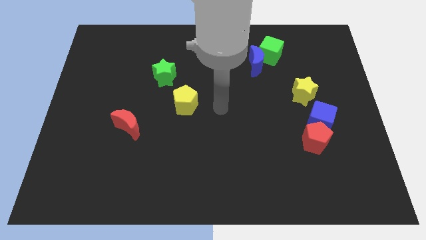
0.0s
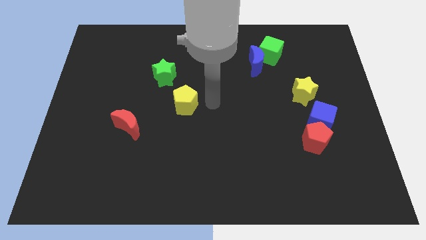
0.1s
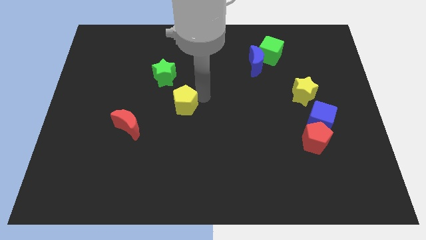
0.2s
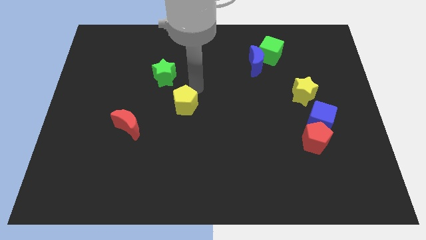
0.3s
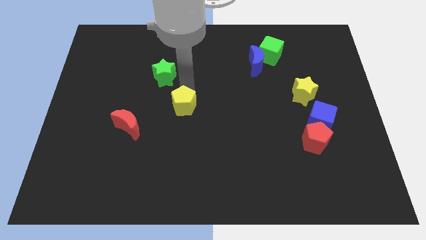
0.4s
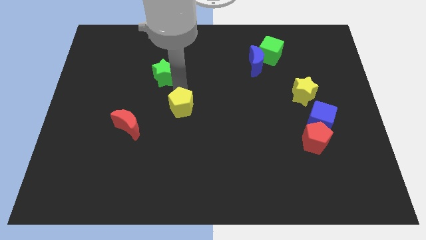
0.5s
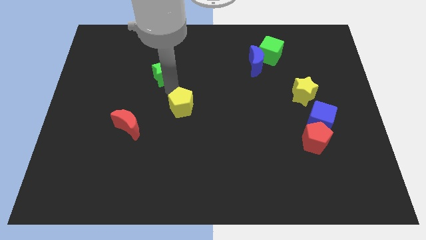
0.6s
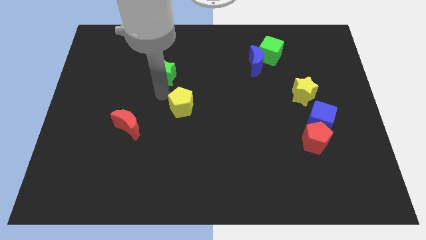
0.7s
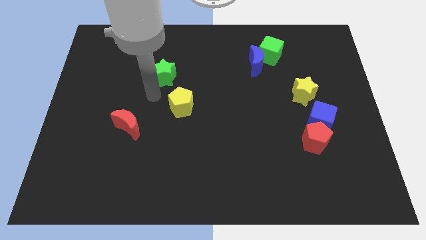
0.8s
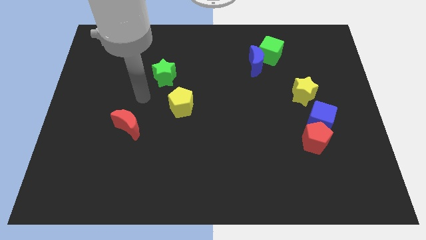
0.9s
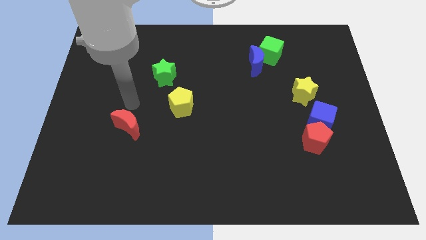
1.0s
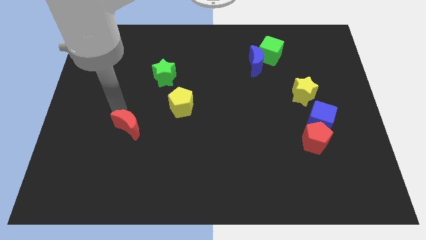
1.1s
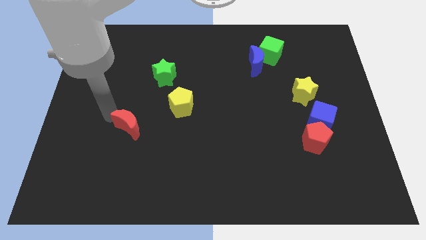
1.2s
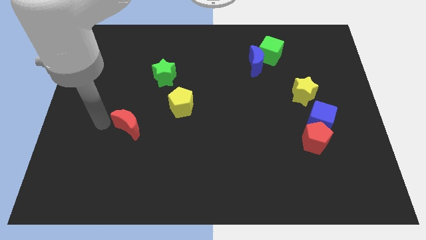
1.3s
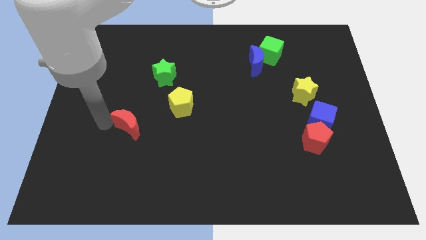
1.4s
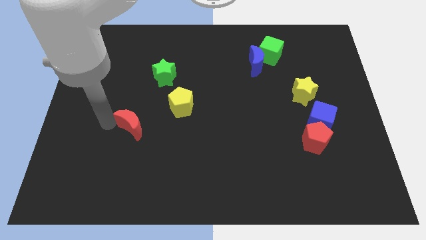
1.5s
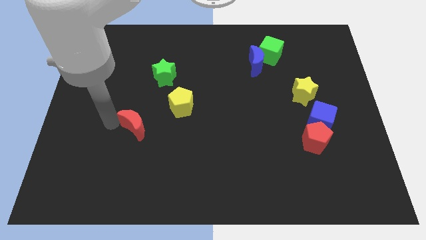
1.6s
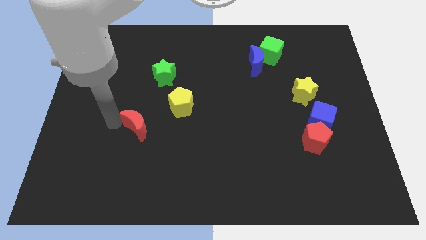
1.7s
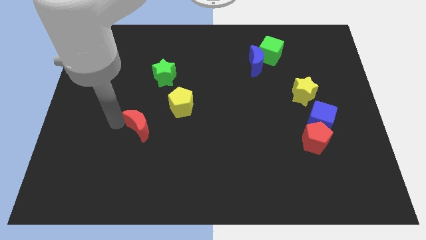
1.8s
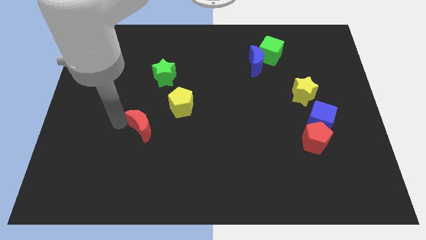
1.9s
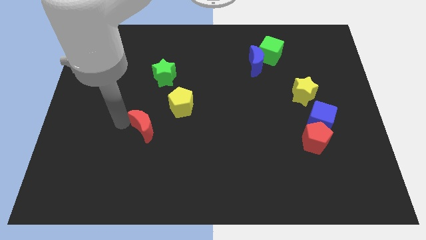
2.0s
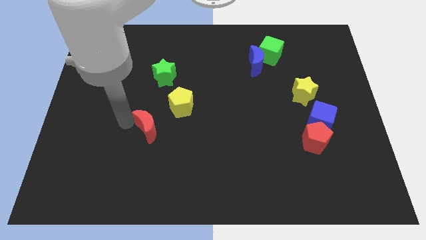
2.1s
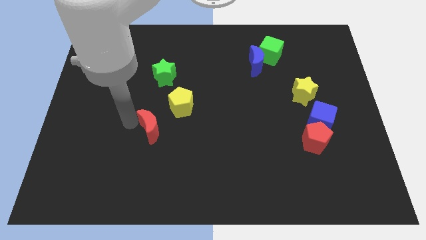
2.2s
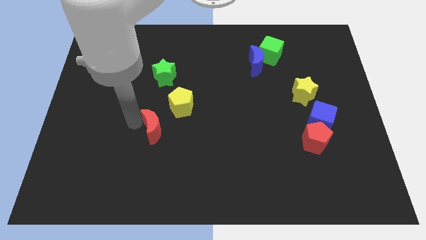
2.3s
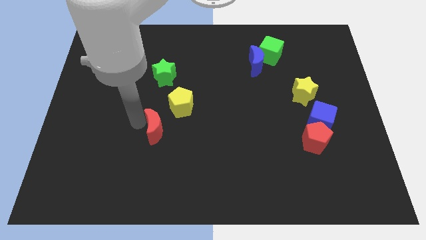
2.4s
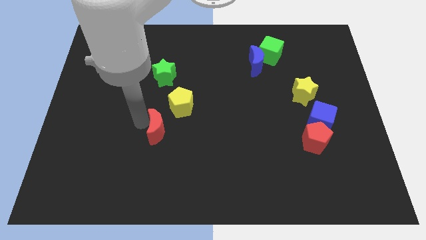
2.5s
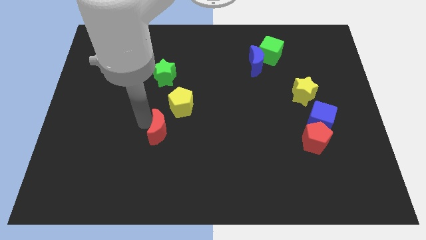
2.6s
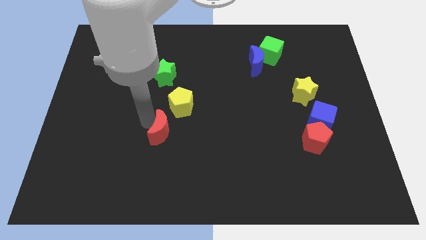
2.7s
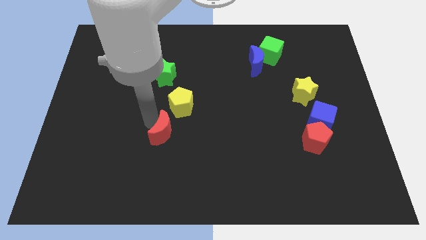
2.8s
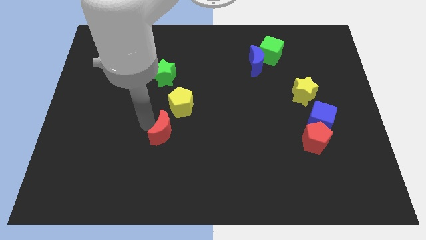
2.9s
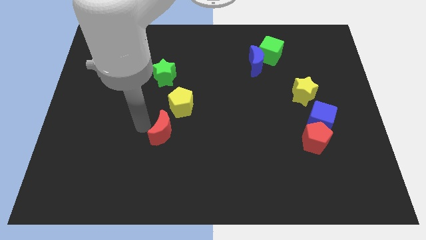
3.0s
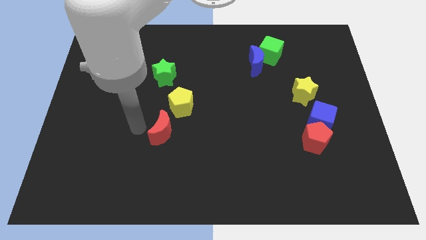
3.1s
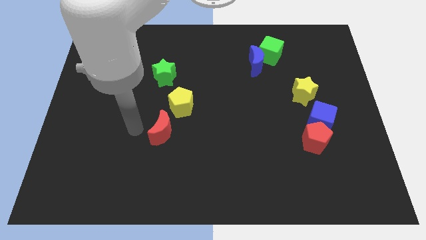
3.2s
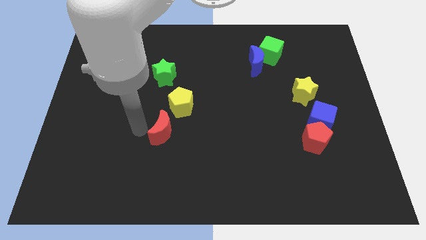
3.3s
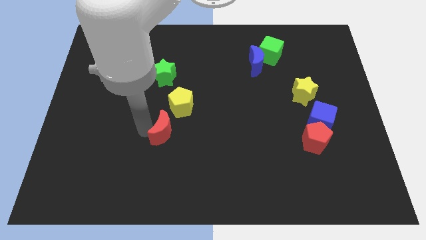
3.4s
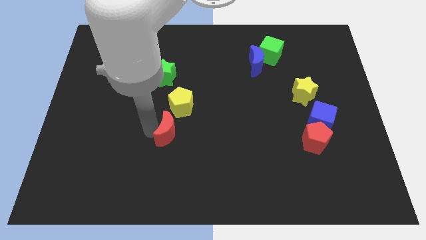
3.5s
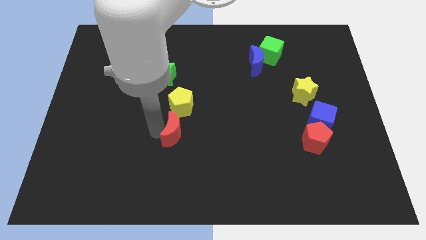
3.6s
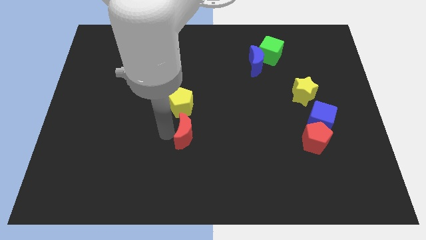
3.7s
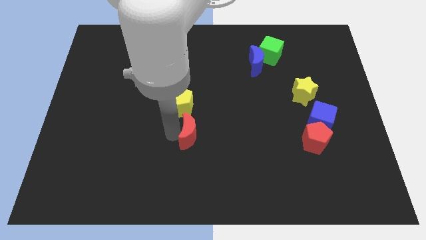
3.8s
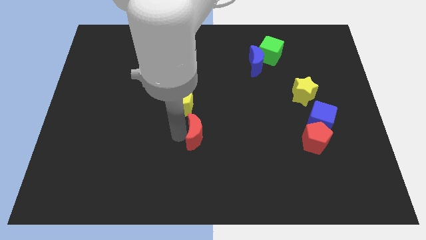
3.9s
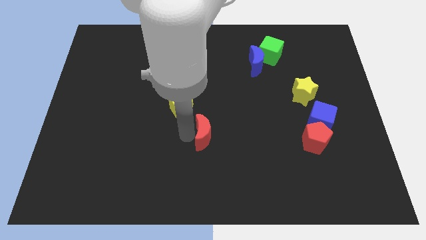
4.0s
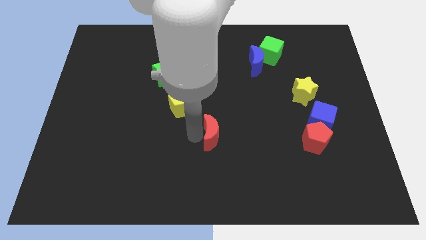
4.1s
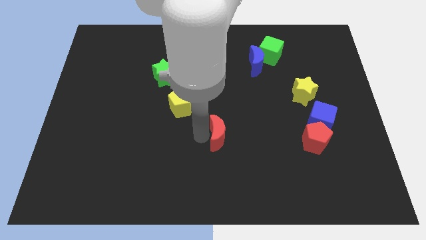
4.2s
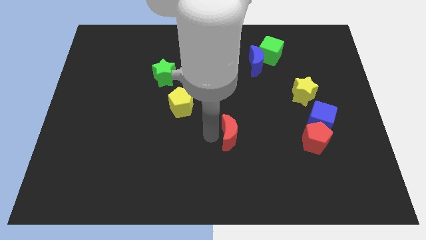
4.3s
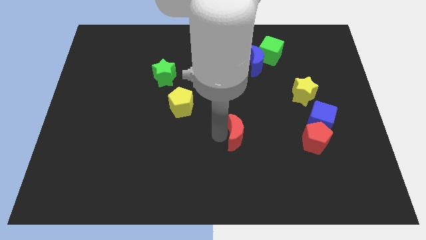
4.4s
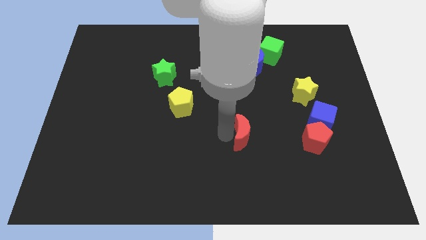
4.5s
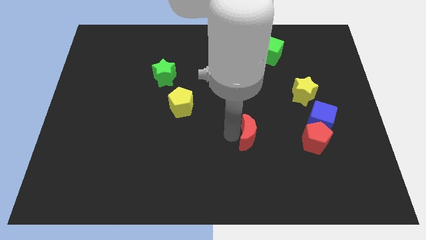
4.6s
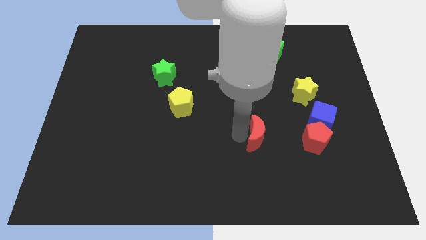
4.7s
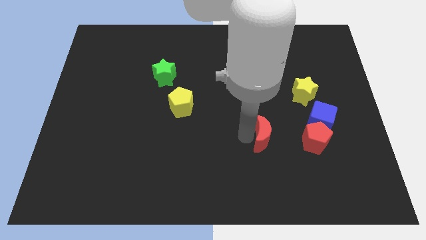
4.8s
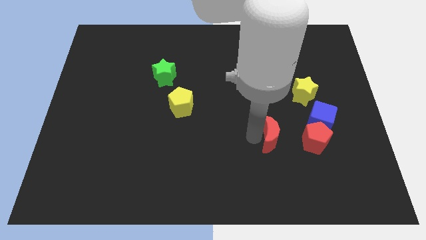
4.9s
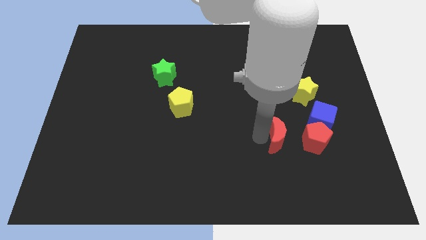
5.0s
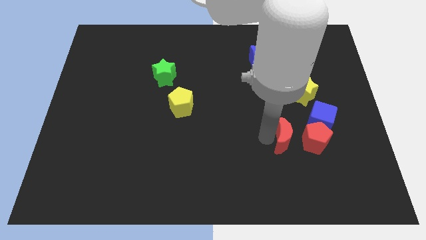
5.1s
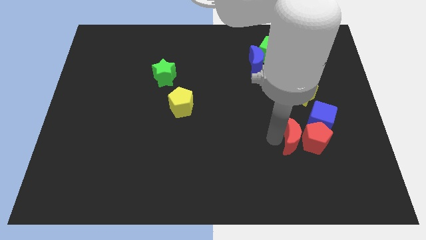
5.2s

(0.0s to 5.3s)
move the red moon to the red pentagon

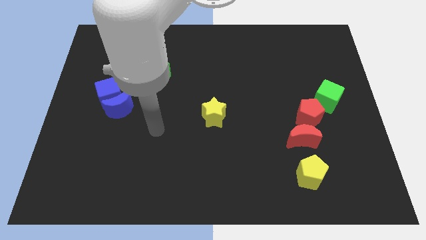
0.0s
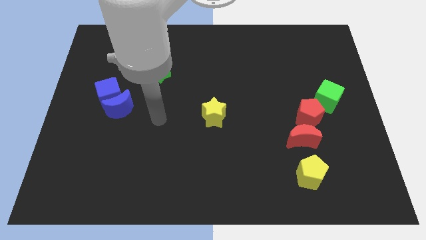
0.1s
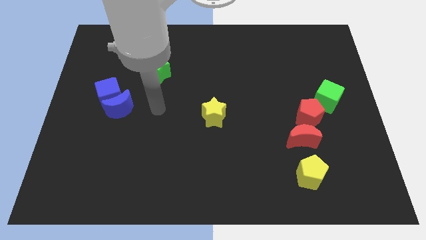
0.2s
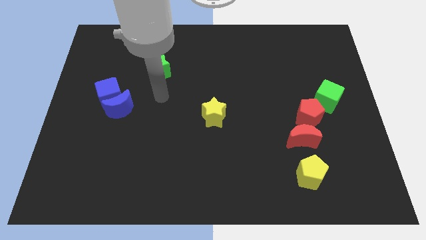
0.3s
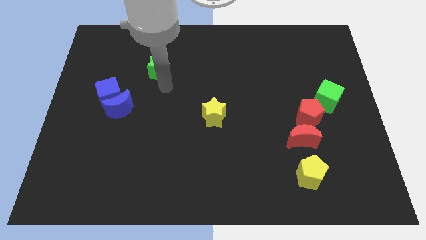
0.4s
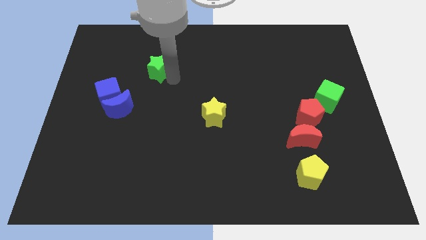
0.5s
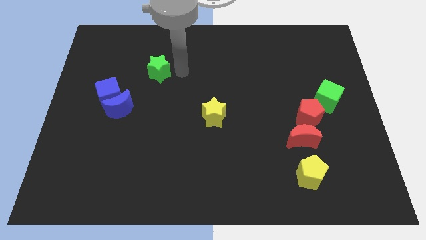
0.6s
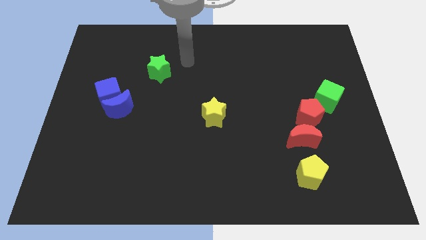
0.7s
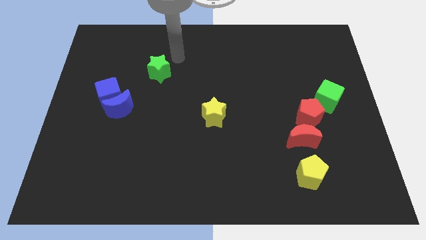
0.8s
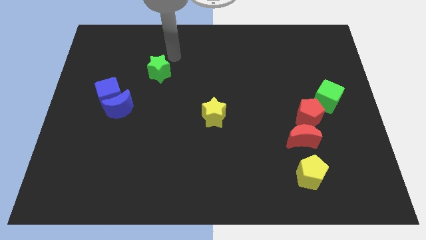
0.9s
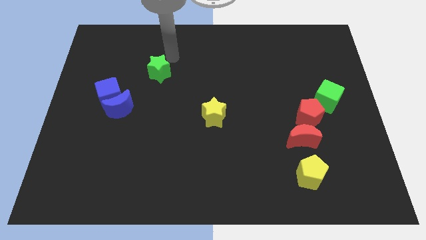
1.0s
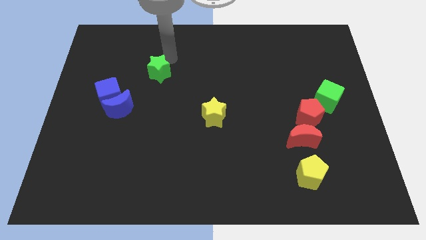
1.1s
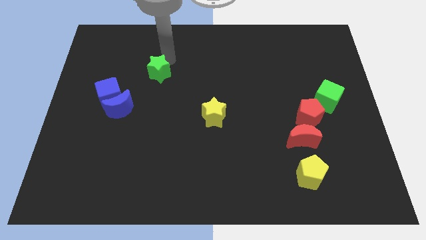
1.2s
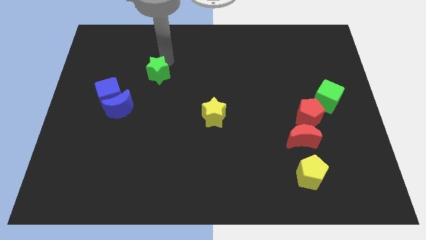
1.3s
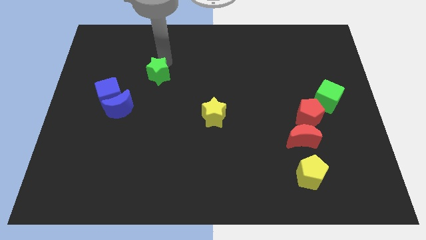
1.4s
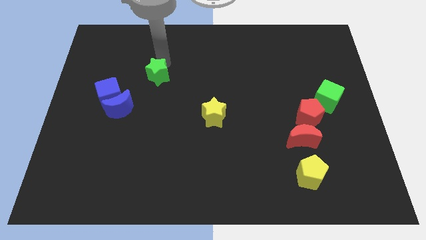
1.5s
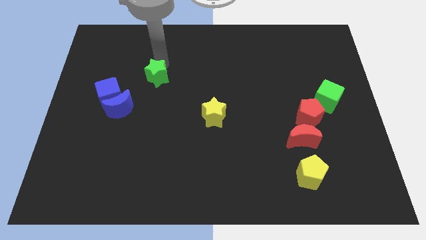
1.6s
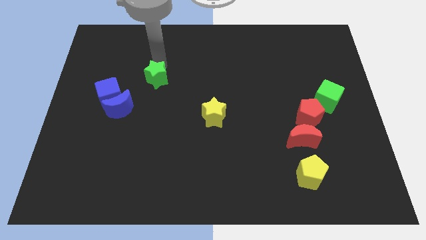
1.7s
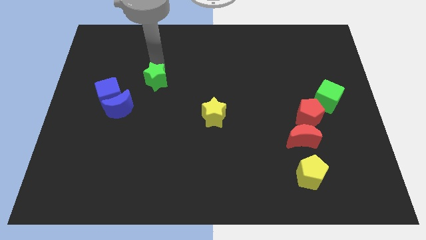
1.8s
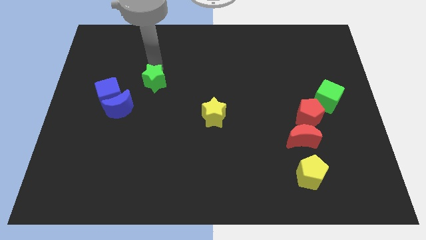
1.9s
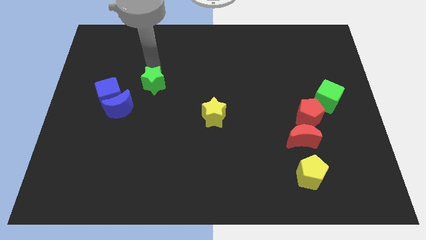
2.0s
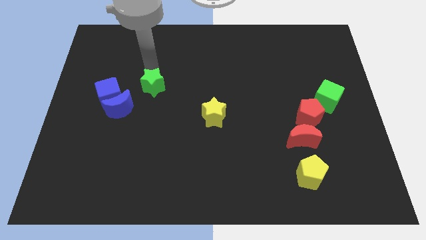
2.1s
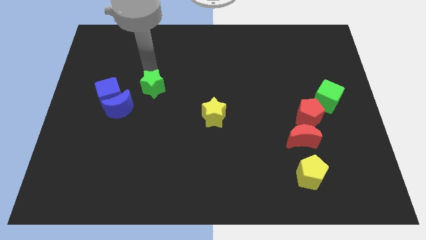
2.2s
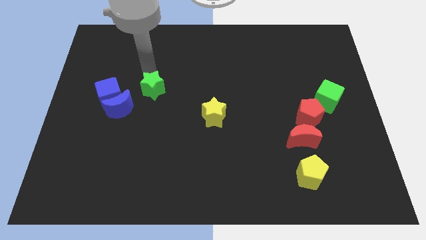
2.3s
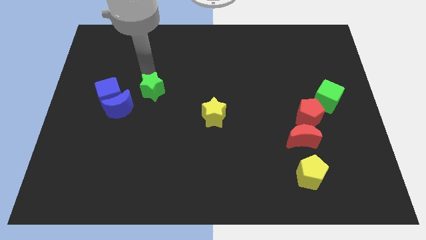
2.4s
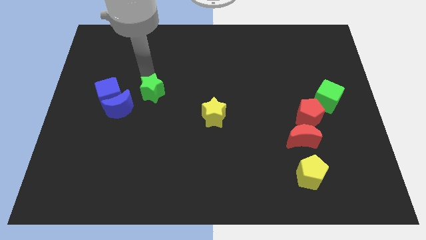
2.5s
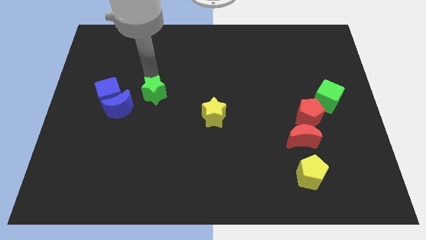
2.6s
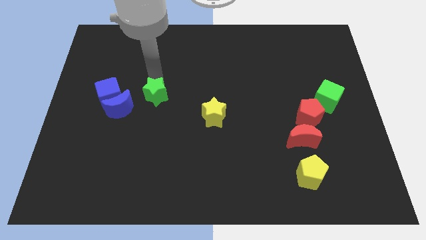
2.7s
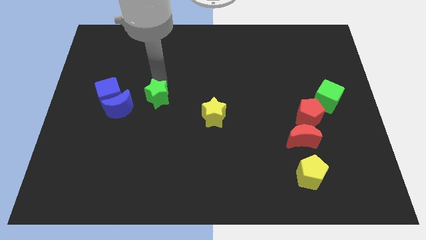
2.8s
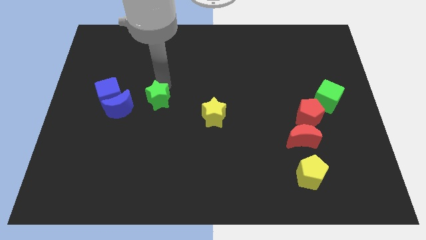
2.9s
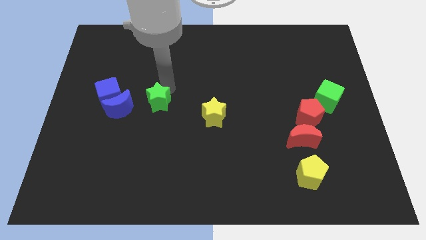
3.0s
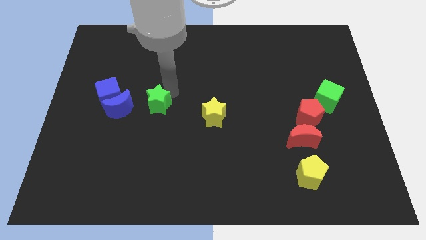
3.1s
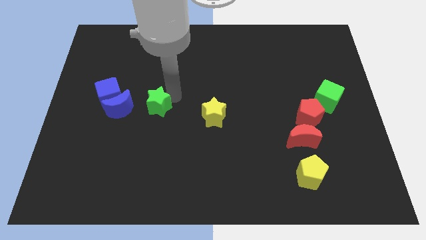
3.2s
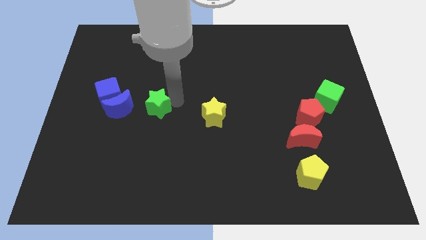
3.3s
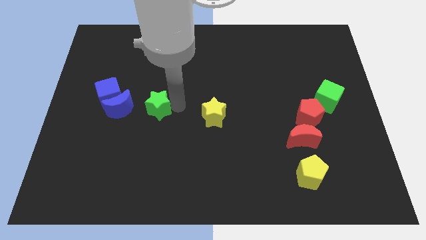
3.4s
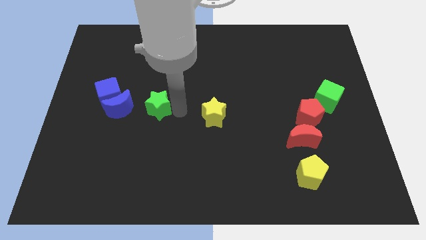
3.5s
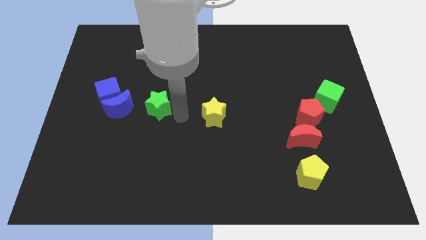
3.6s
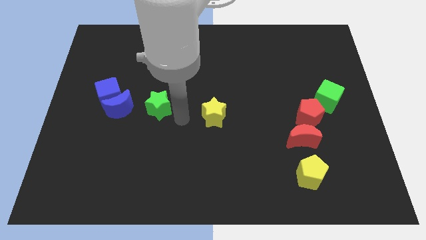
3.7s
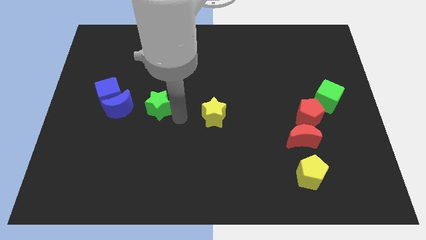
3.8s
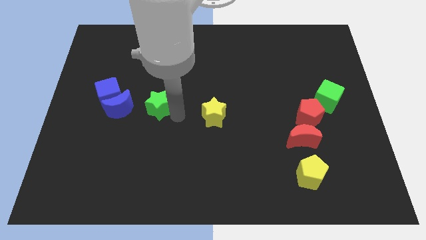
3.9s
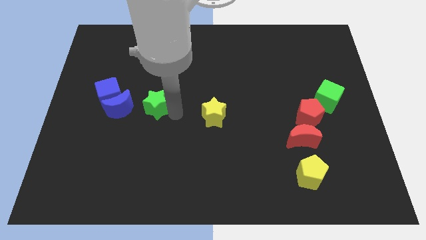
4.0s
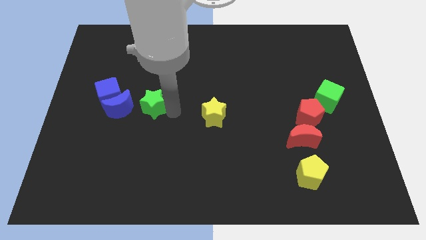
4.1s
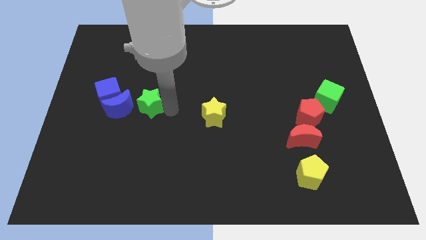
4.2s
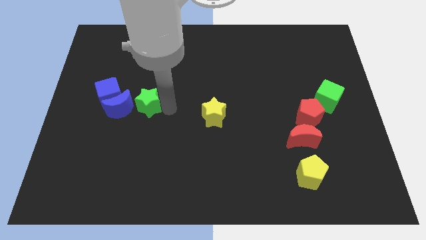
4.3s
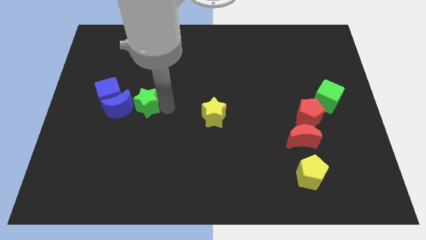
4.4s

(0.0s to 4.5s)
slide the green star towards the blue moon
